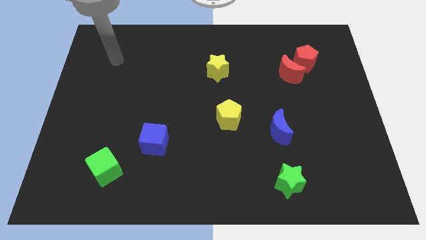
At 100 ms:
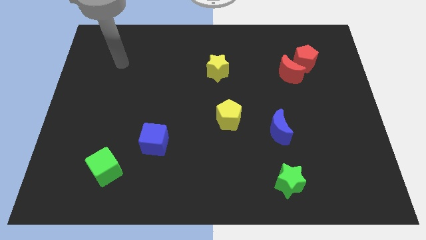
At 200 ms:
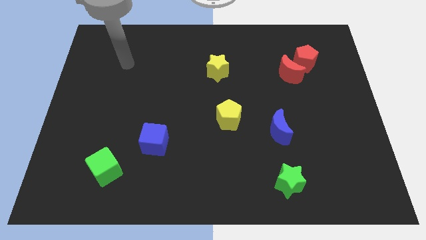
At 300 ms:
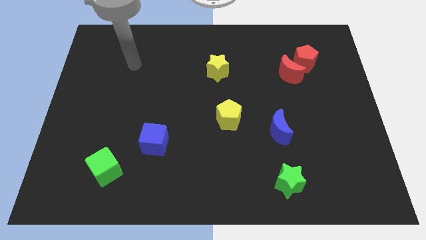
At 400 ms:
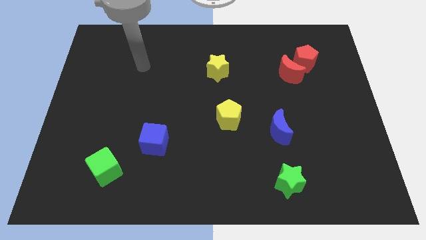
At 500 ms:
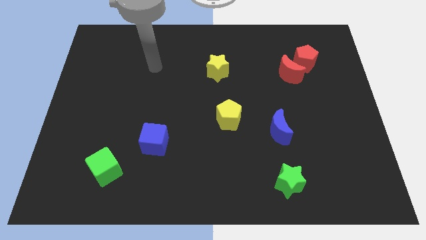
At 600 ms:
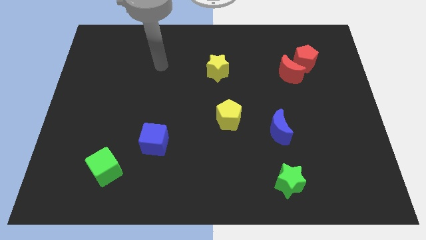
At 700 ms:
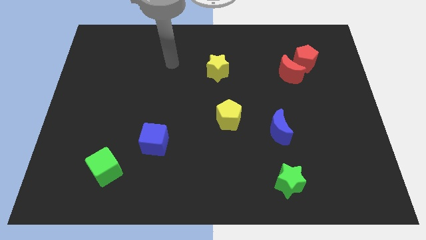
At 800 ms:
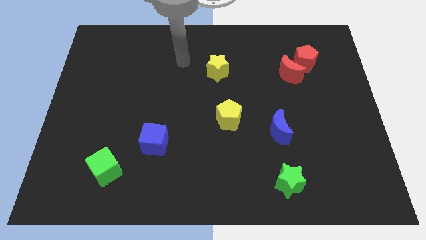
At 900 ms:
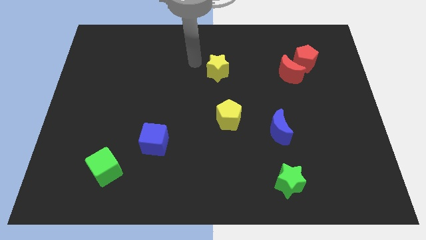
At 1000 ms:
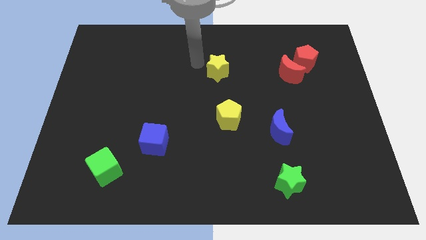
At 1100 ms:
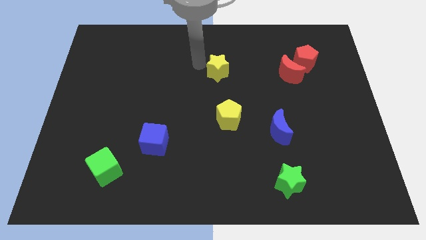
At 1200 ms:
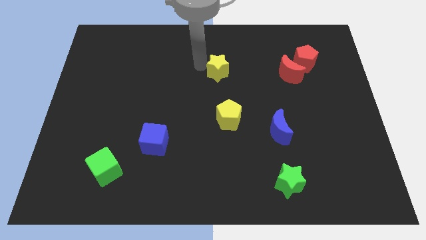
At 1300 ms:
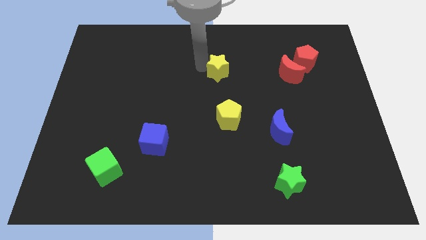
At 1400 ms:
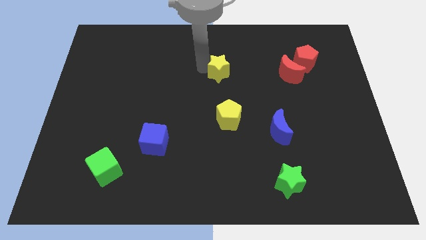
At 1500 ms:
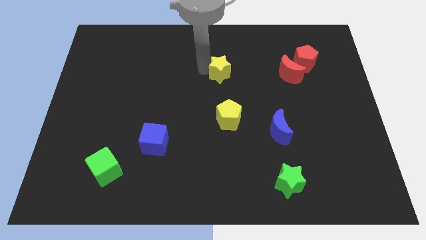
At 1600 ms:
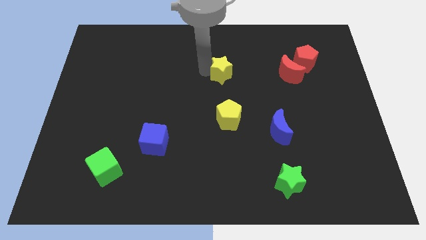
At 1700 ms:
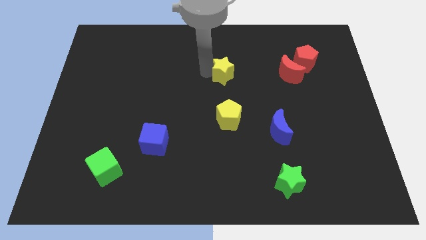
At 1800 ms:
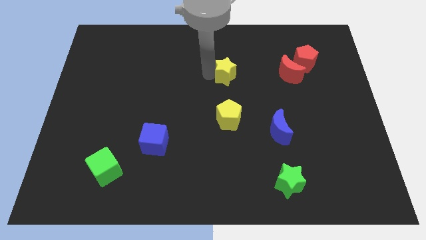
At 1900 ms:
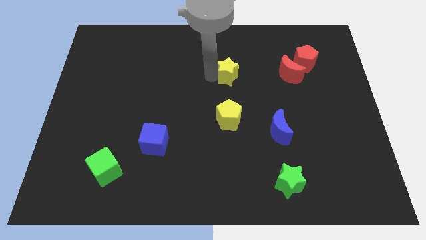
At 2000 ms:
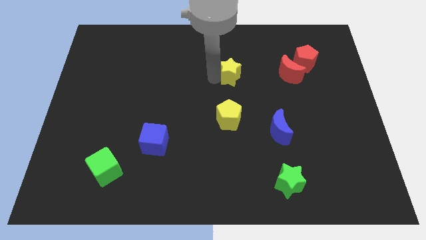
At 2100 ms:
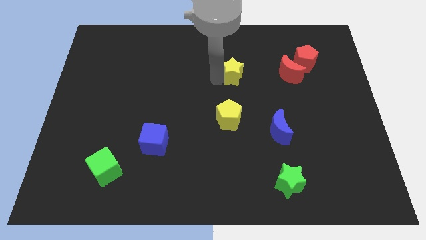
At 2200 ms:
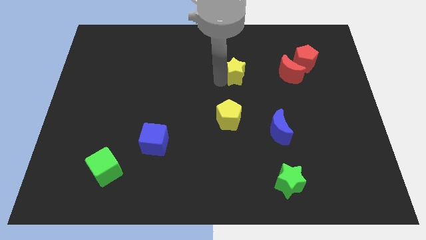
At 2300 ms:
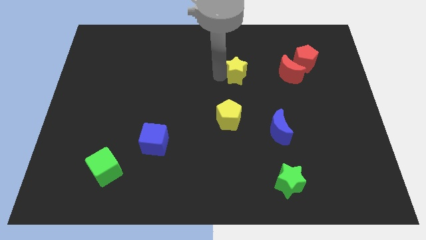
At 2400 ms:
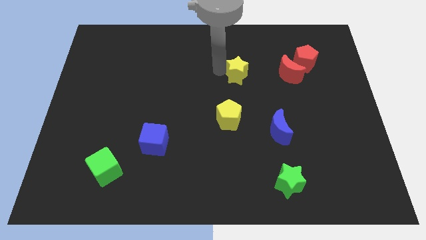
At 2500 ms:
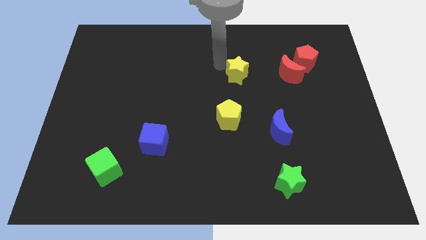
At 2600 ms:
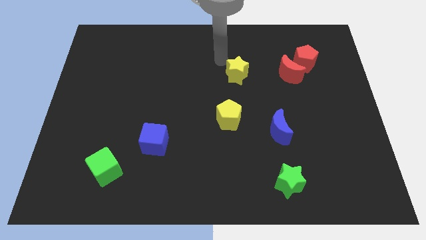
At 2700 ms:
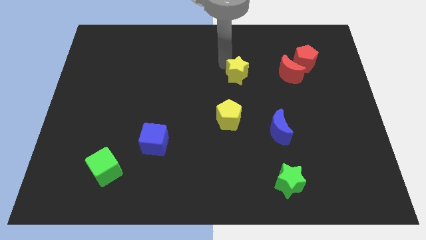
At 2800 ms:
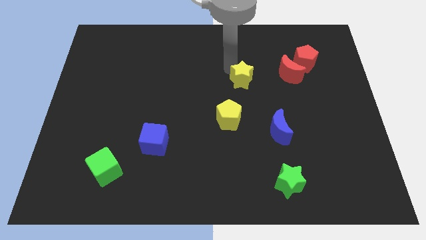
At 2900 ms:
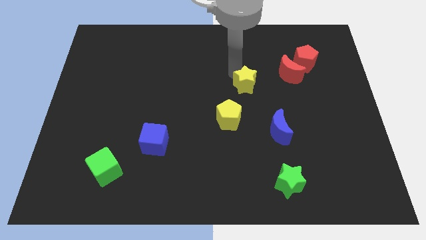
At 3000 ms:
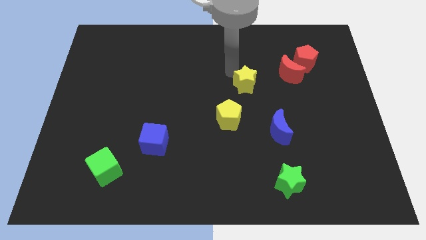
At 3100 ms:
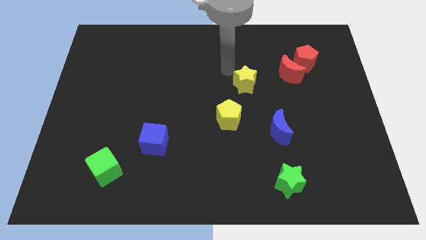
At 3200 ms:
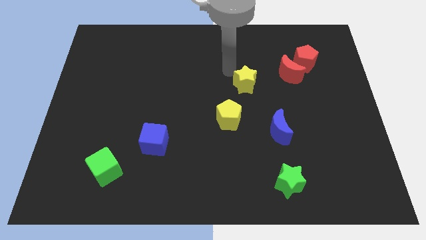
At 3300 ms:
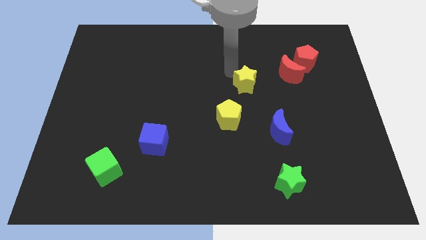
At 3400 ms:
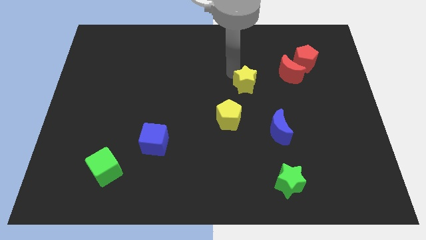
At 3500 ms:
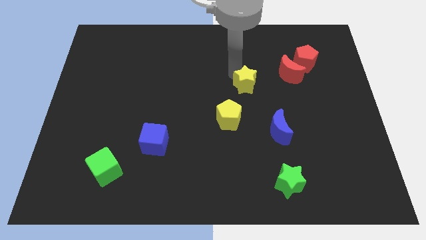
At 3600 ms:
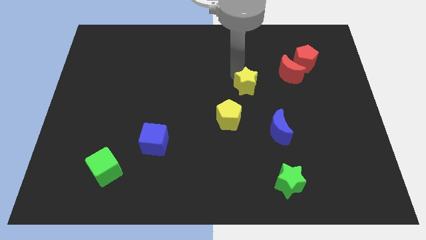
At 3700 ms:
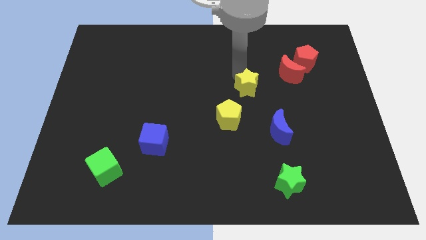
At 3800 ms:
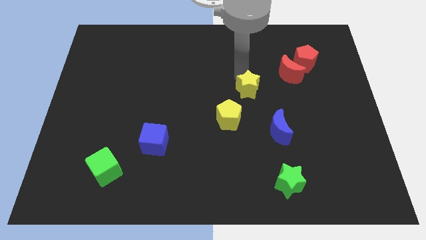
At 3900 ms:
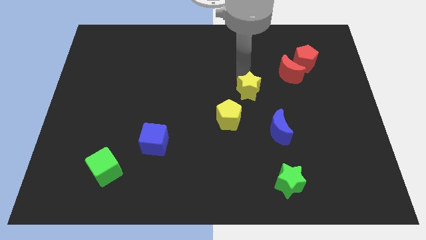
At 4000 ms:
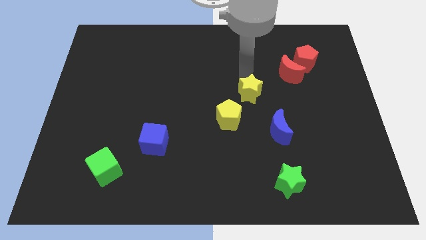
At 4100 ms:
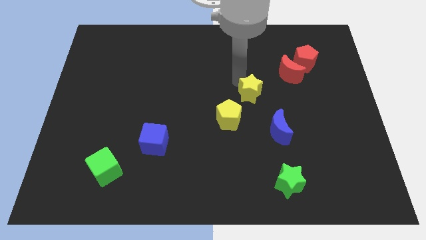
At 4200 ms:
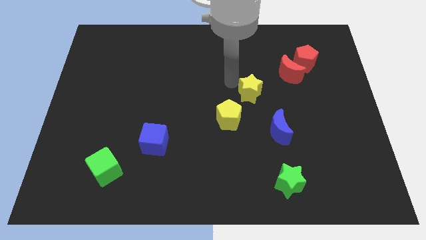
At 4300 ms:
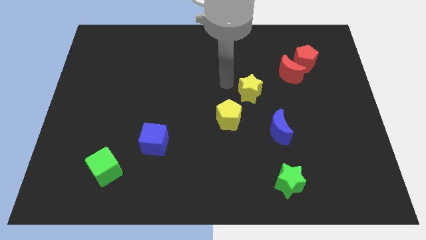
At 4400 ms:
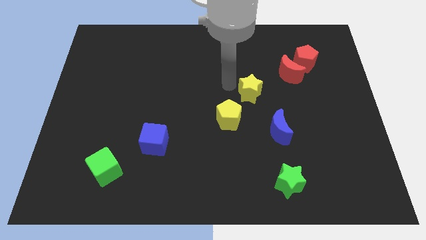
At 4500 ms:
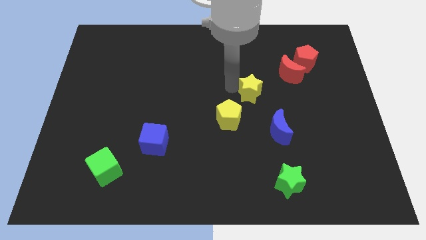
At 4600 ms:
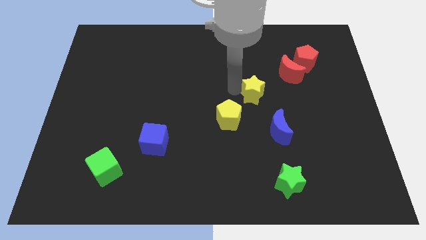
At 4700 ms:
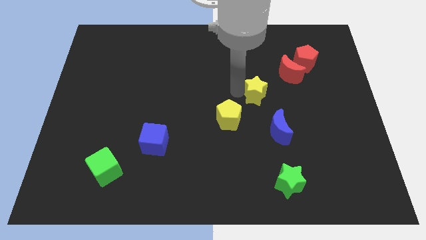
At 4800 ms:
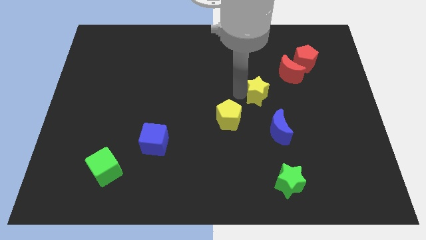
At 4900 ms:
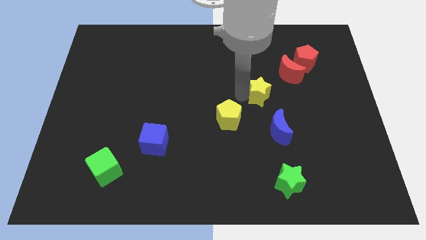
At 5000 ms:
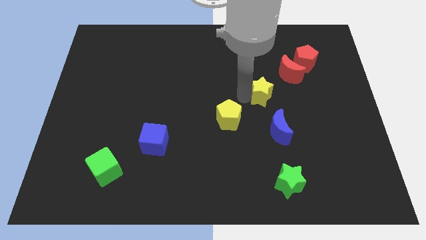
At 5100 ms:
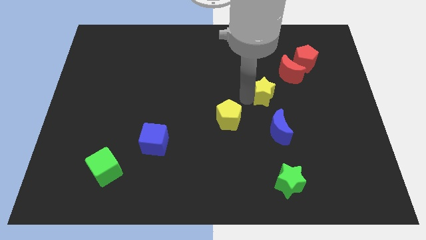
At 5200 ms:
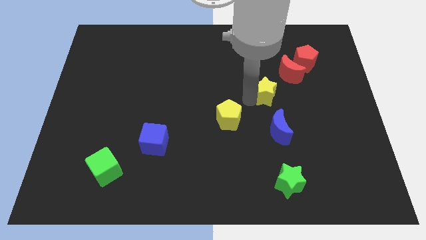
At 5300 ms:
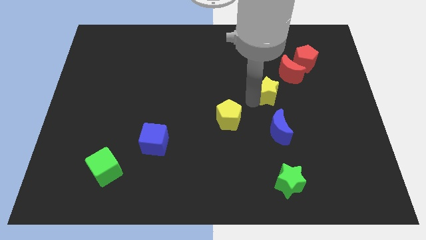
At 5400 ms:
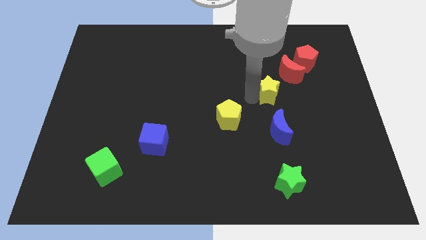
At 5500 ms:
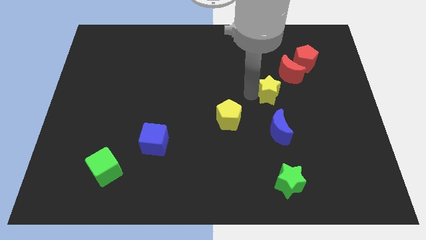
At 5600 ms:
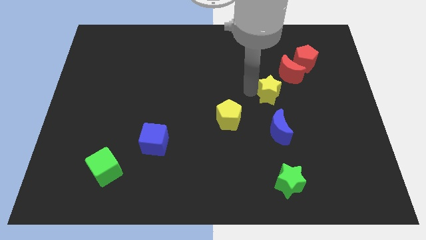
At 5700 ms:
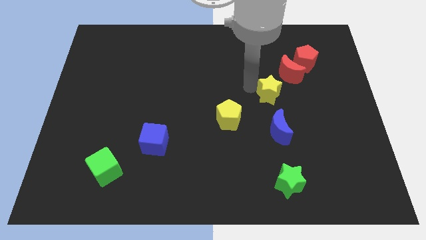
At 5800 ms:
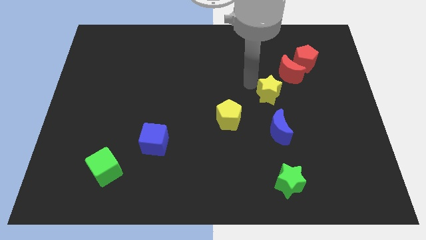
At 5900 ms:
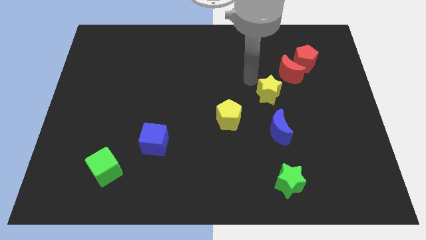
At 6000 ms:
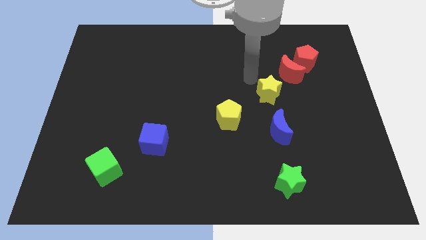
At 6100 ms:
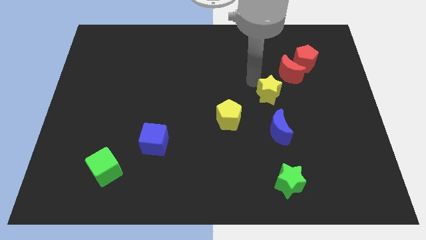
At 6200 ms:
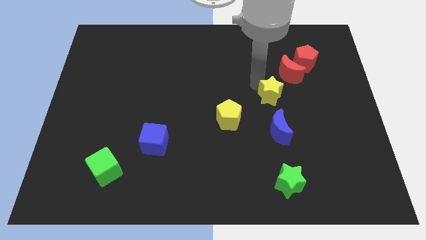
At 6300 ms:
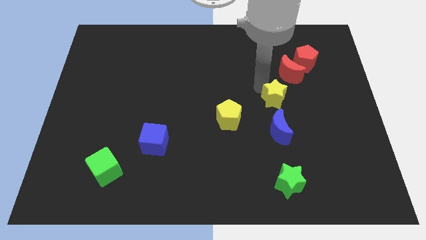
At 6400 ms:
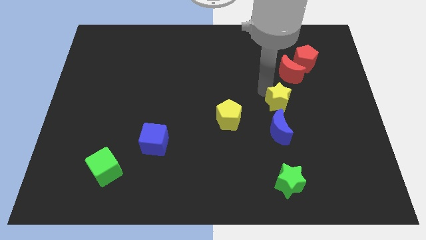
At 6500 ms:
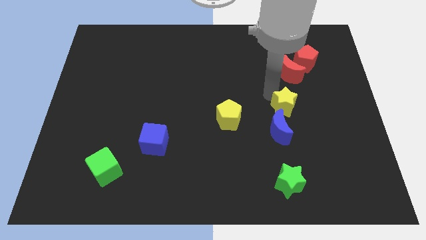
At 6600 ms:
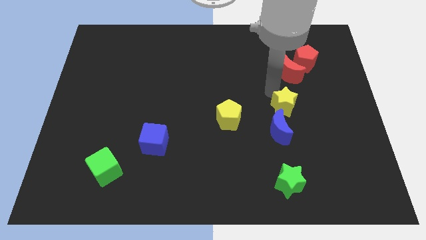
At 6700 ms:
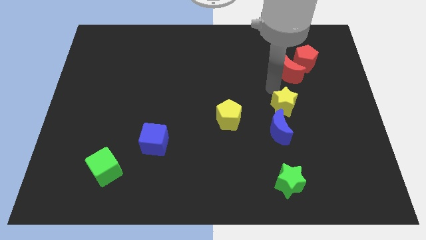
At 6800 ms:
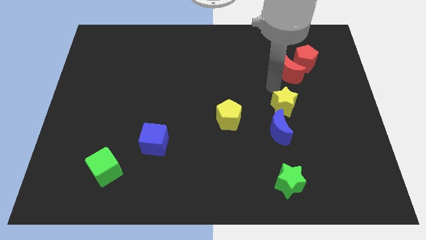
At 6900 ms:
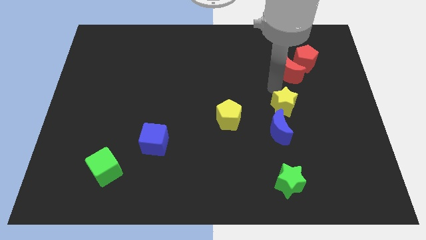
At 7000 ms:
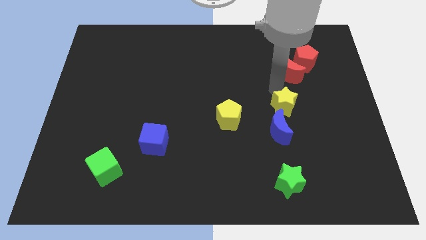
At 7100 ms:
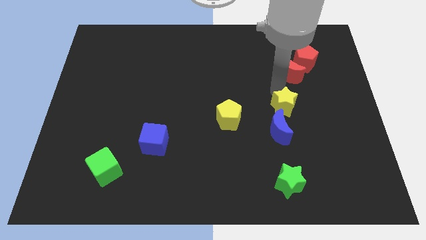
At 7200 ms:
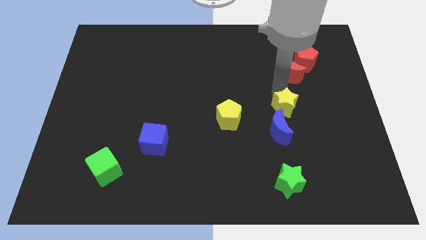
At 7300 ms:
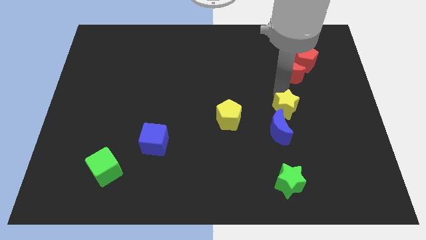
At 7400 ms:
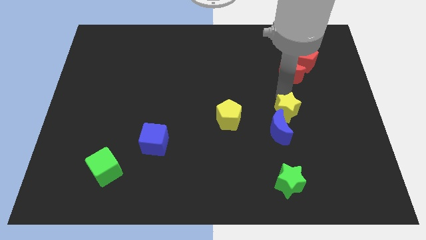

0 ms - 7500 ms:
push the yellow star down and to the right

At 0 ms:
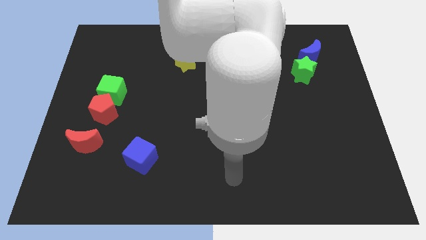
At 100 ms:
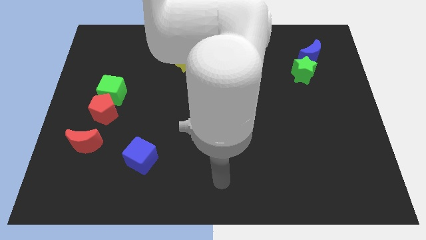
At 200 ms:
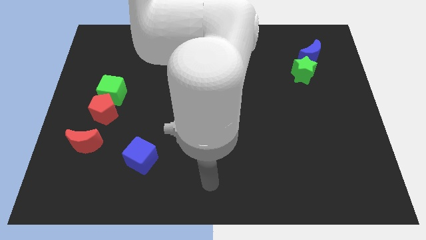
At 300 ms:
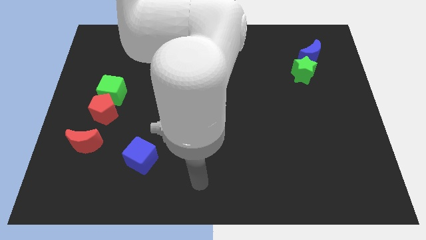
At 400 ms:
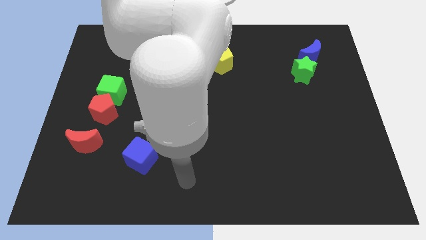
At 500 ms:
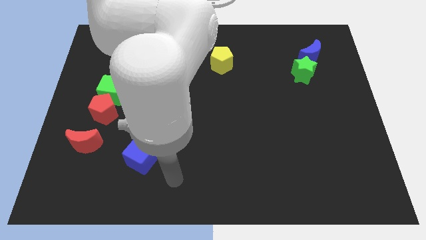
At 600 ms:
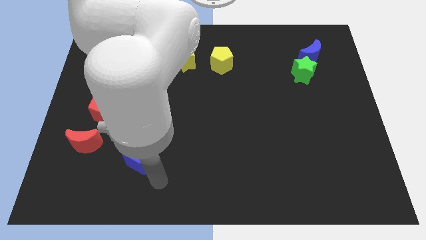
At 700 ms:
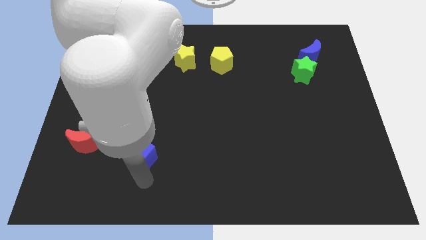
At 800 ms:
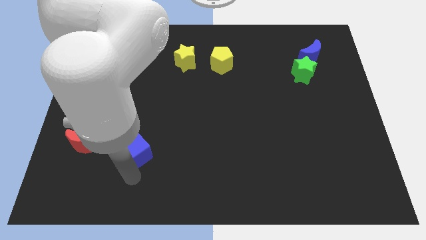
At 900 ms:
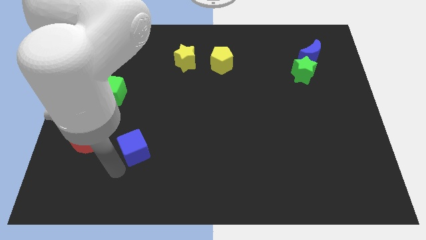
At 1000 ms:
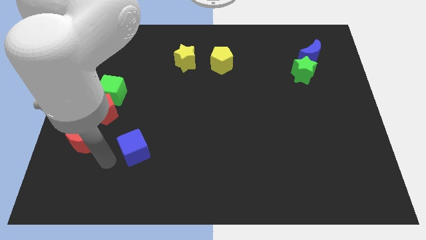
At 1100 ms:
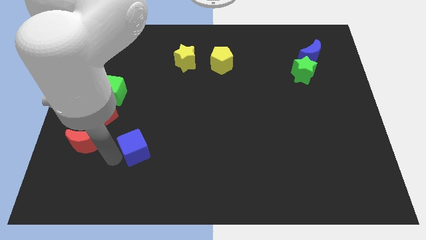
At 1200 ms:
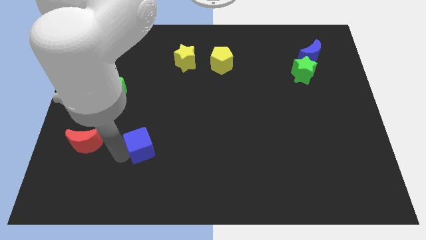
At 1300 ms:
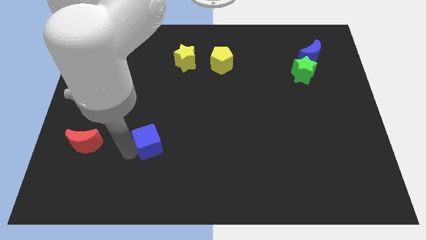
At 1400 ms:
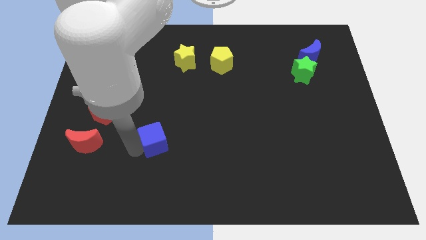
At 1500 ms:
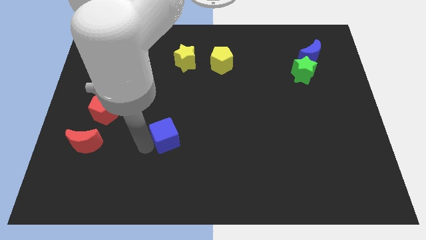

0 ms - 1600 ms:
move the blue cube up and to the right slightly
